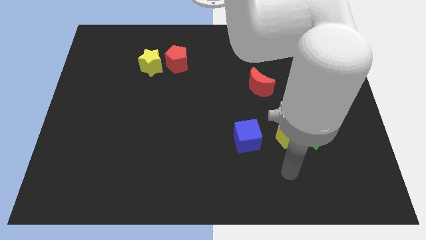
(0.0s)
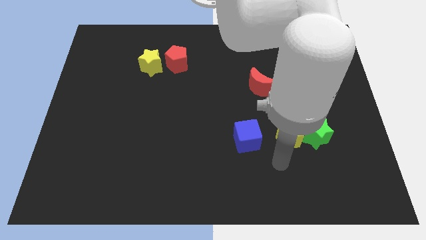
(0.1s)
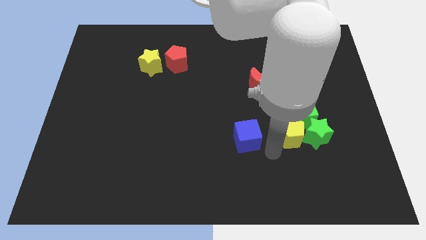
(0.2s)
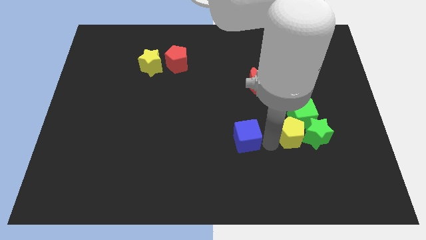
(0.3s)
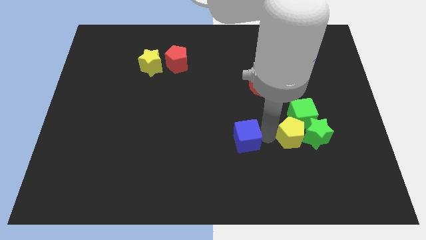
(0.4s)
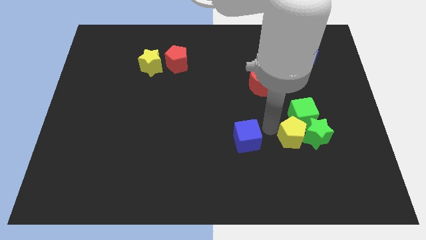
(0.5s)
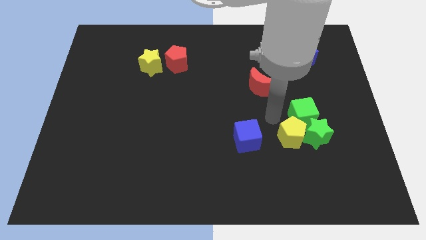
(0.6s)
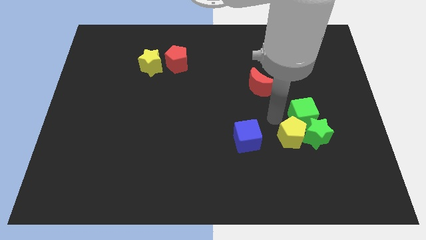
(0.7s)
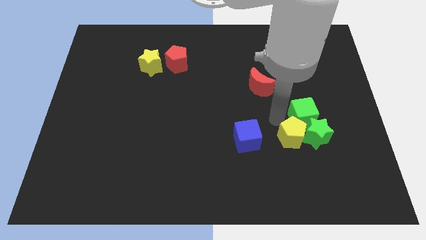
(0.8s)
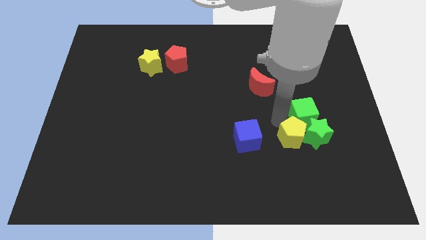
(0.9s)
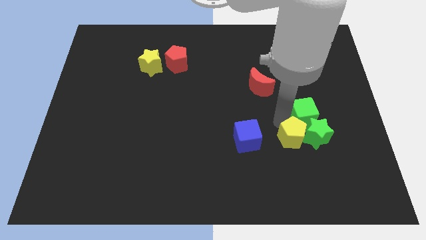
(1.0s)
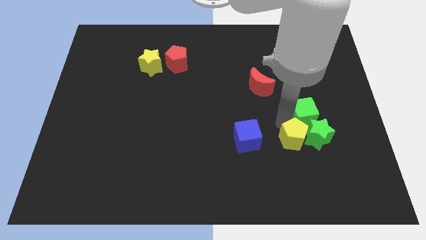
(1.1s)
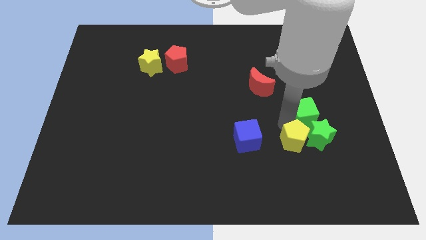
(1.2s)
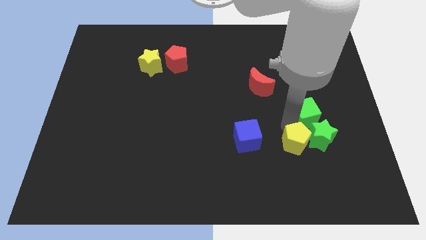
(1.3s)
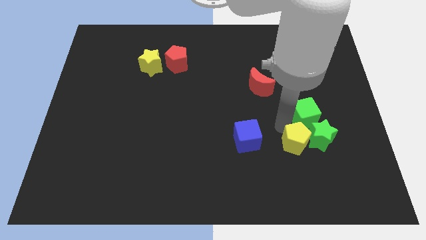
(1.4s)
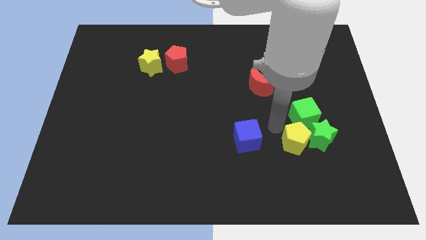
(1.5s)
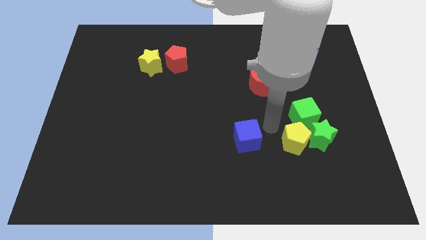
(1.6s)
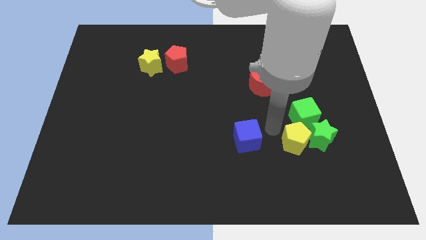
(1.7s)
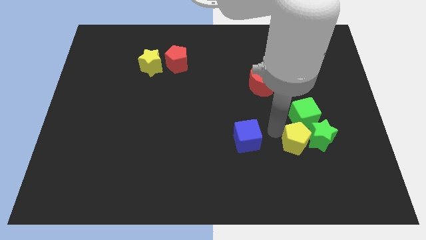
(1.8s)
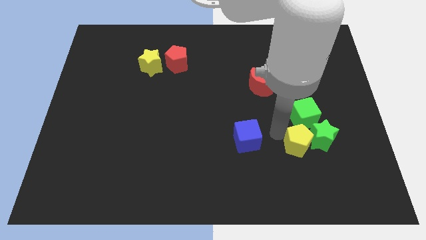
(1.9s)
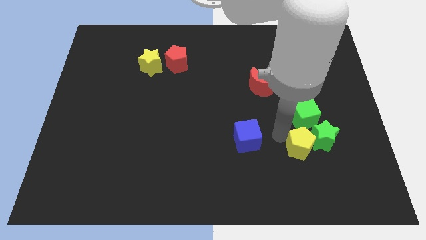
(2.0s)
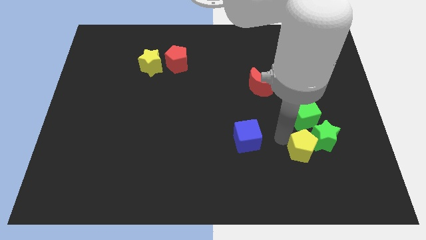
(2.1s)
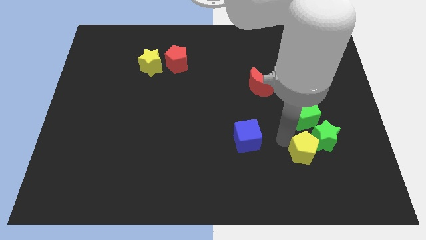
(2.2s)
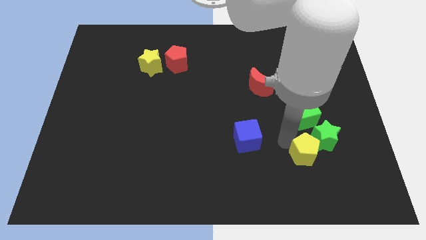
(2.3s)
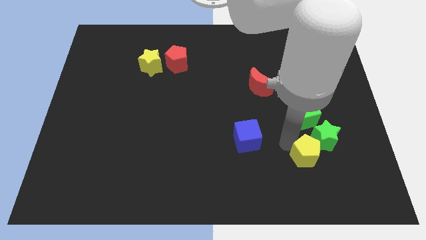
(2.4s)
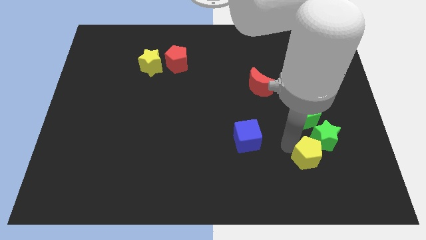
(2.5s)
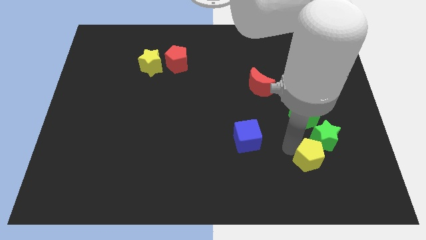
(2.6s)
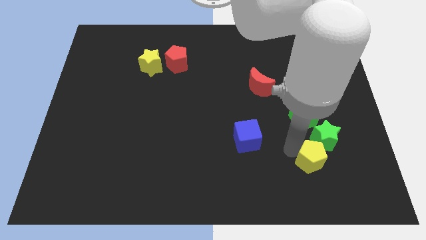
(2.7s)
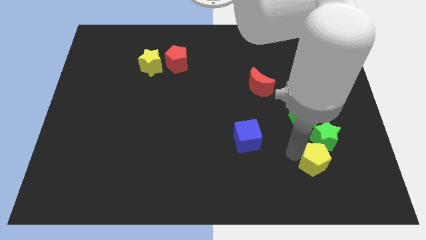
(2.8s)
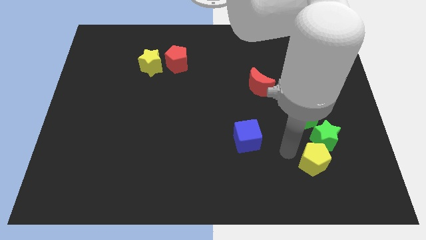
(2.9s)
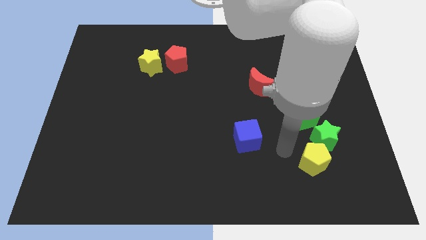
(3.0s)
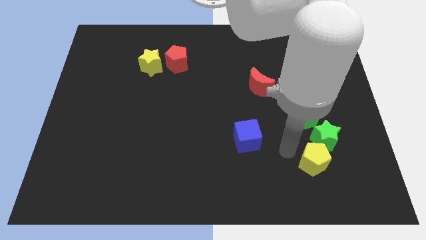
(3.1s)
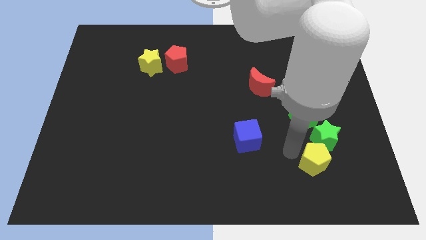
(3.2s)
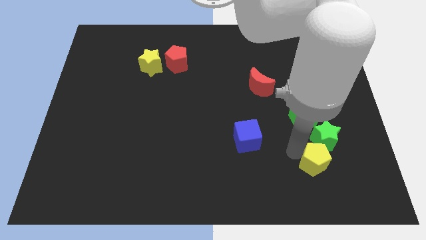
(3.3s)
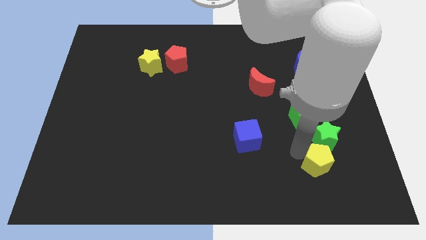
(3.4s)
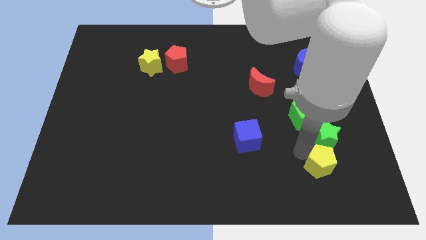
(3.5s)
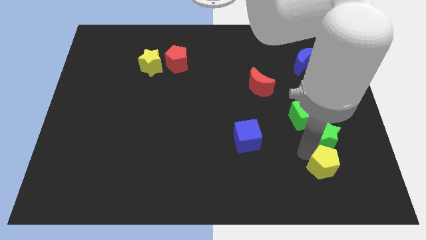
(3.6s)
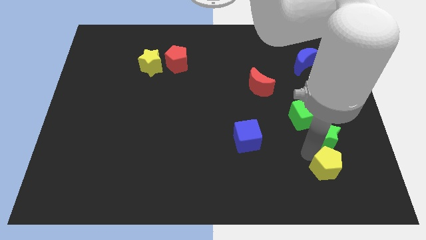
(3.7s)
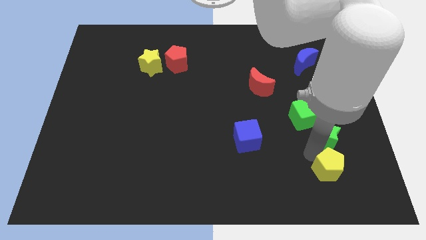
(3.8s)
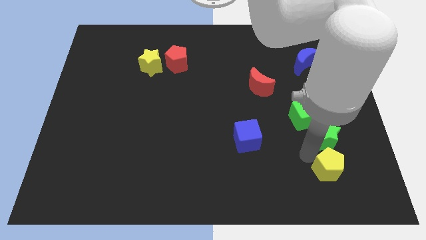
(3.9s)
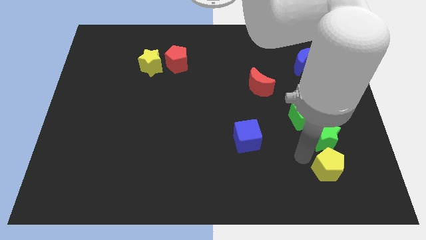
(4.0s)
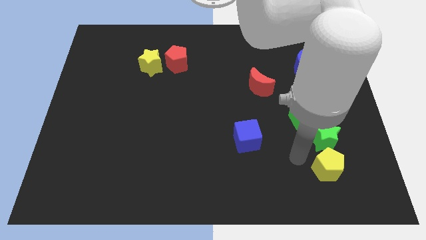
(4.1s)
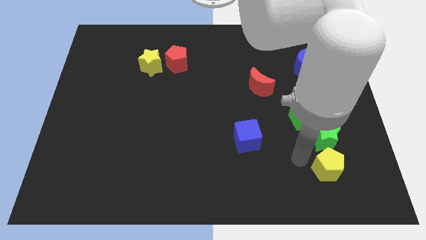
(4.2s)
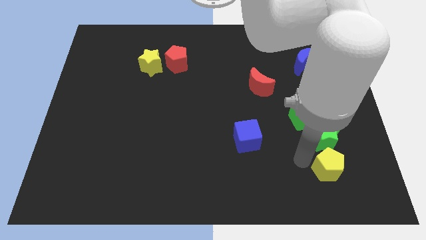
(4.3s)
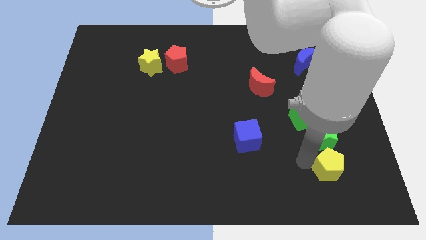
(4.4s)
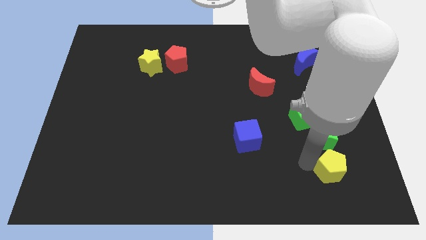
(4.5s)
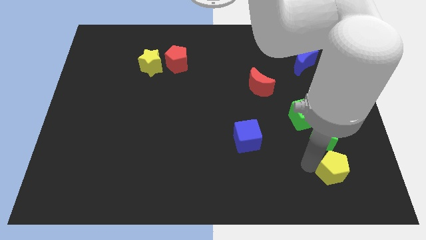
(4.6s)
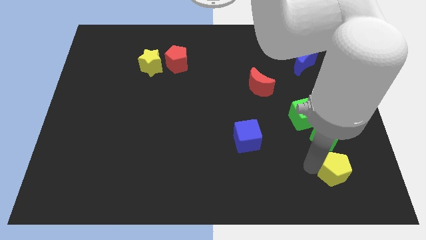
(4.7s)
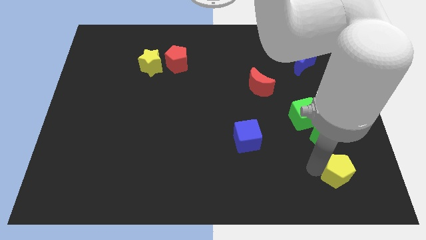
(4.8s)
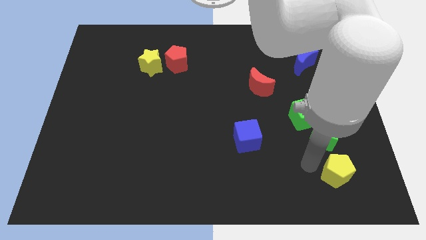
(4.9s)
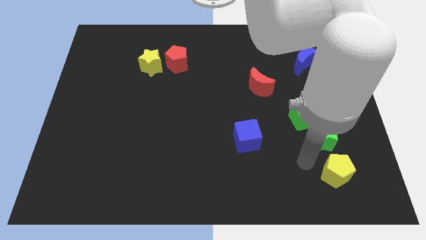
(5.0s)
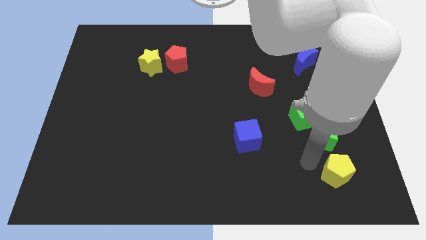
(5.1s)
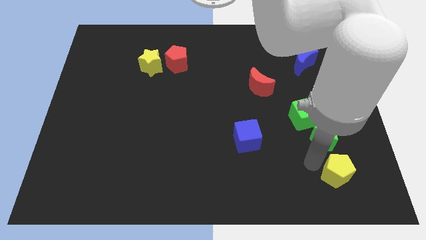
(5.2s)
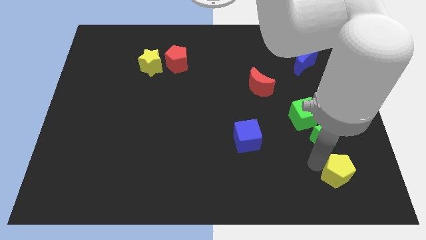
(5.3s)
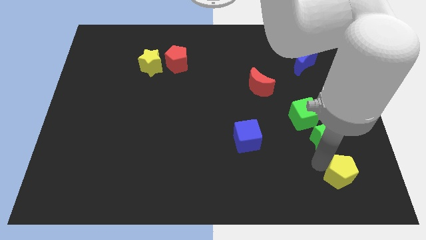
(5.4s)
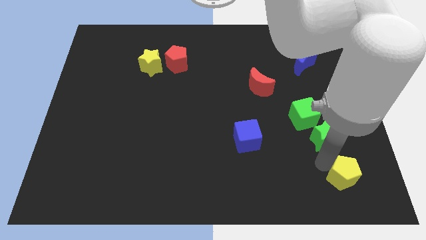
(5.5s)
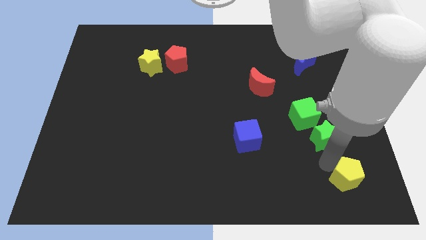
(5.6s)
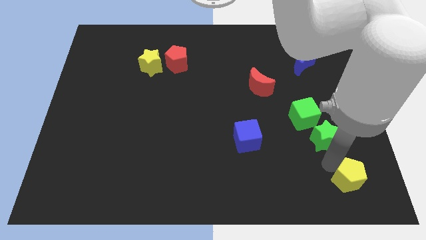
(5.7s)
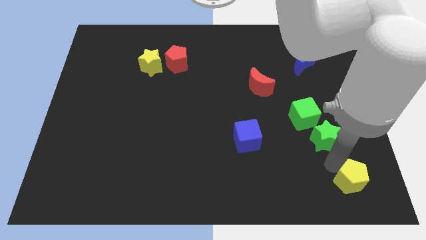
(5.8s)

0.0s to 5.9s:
move the yellow pentagon to the lower right corner

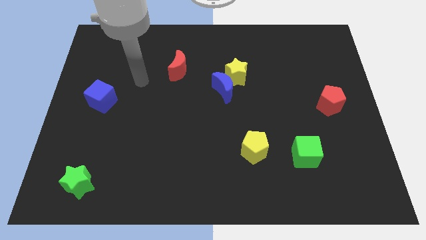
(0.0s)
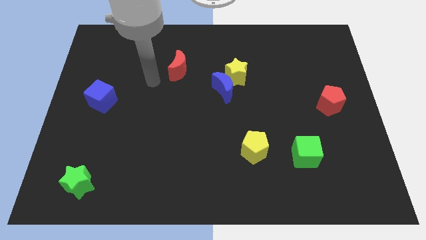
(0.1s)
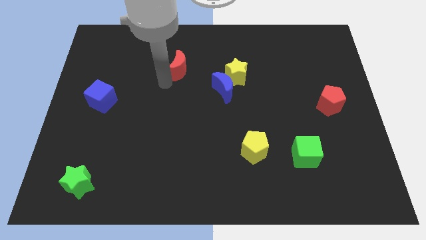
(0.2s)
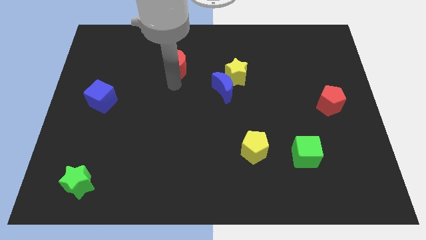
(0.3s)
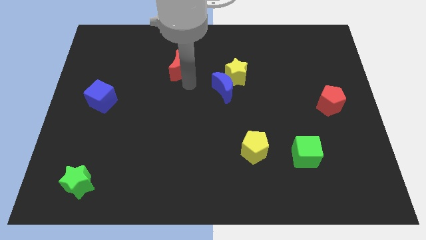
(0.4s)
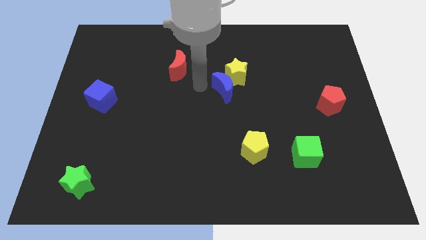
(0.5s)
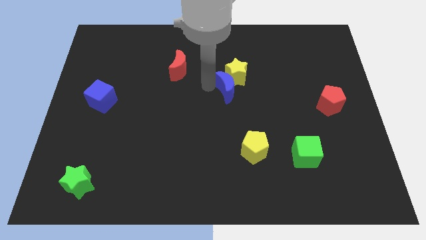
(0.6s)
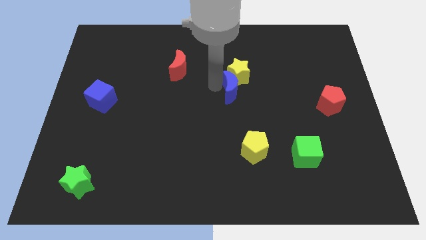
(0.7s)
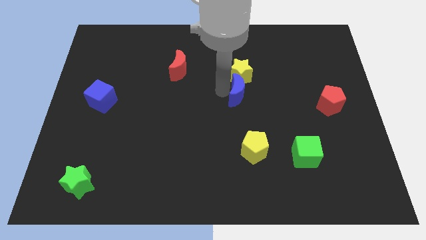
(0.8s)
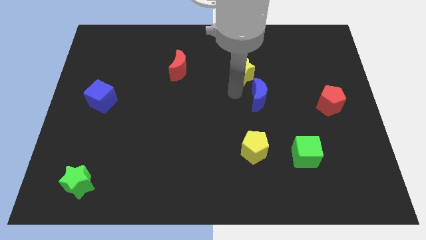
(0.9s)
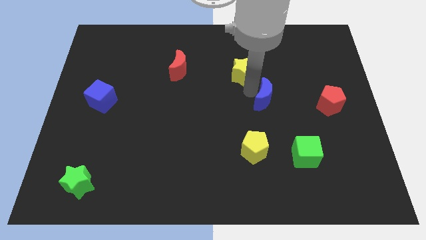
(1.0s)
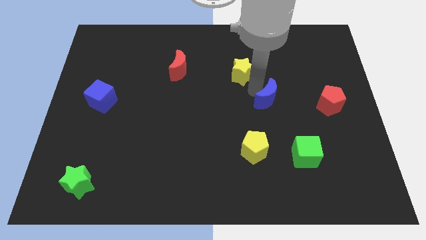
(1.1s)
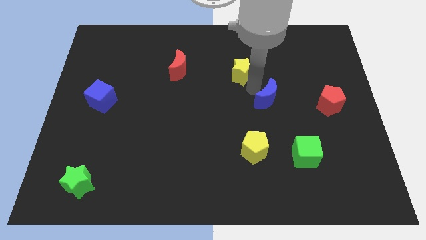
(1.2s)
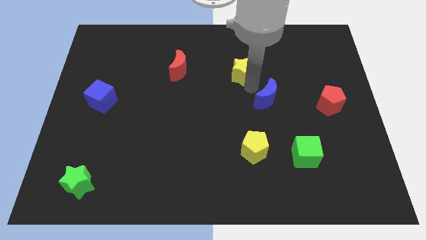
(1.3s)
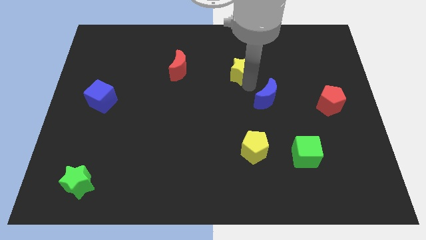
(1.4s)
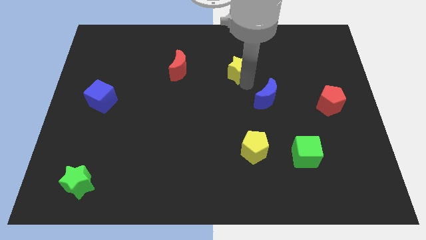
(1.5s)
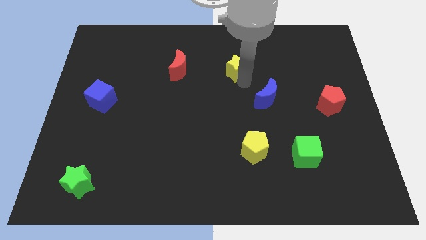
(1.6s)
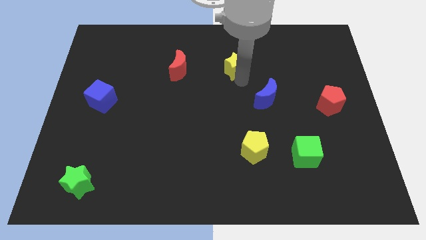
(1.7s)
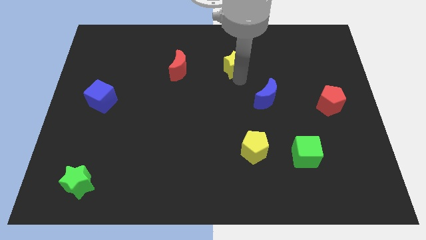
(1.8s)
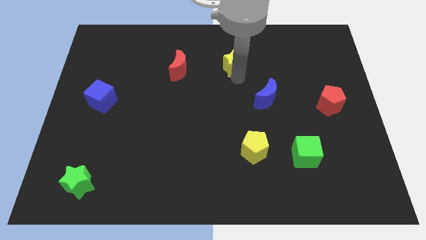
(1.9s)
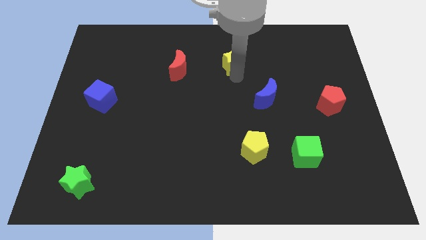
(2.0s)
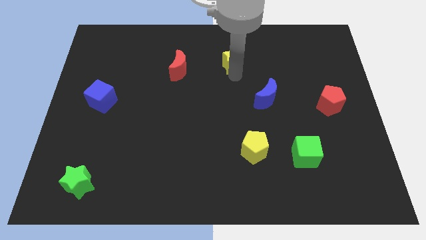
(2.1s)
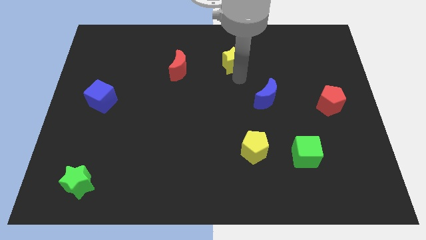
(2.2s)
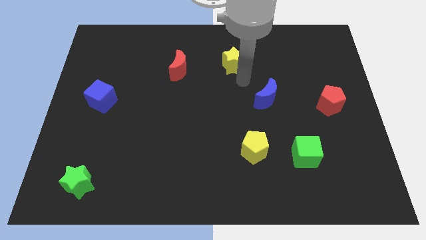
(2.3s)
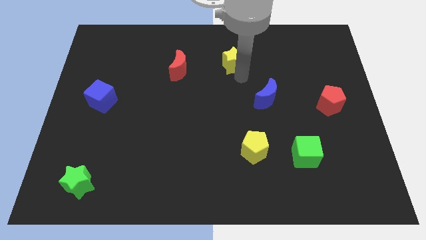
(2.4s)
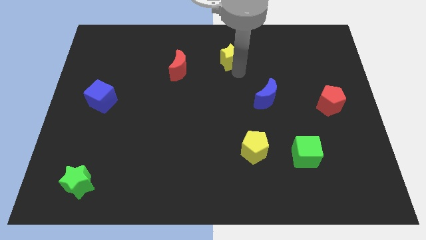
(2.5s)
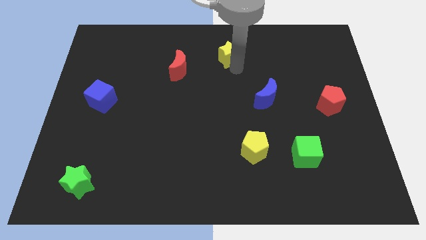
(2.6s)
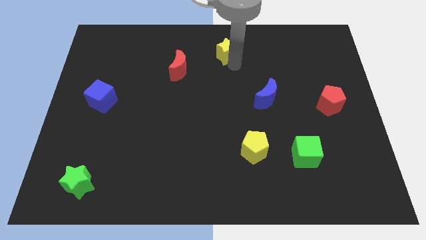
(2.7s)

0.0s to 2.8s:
put the yellow star to the top side
